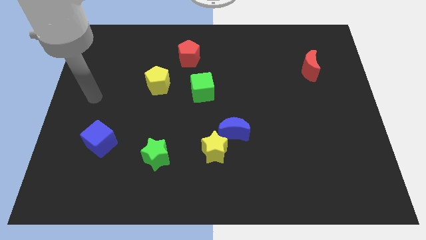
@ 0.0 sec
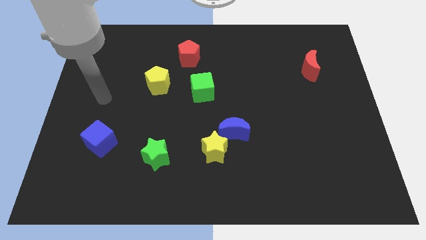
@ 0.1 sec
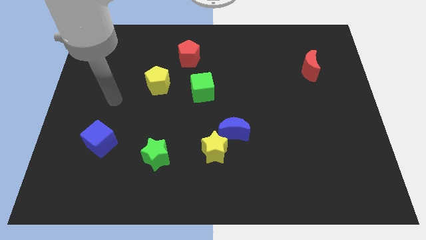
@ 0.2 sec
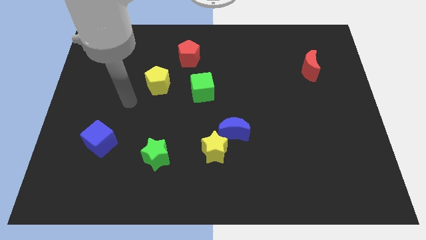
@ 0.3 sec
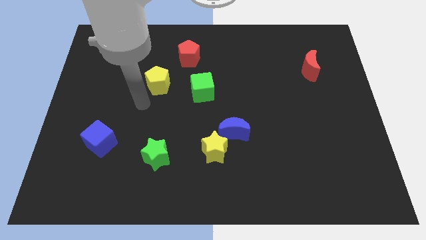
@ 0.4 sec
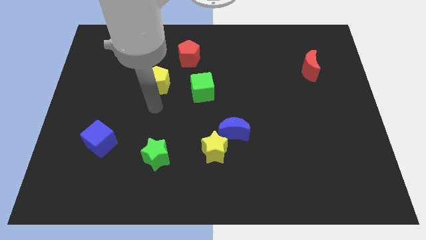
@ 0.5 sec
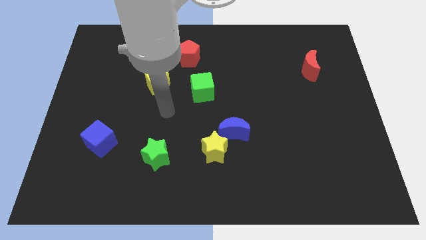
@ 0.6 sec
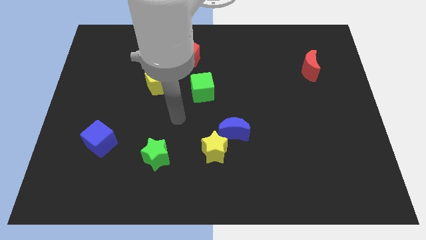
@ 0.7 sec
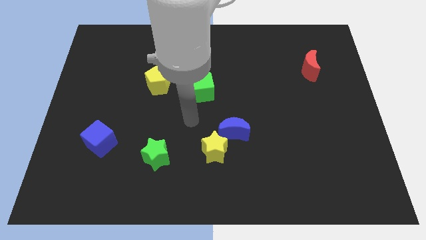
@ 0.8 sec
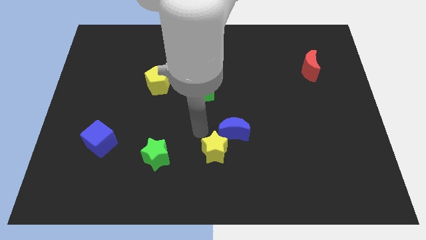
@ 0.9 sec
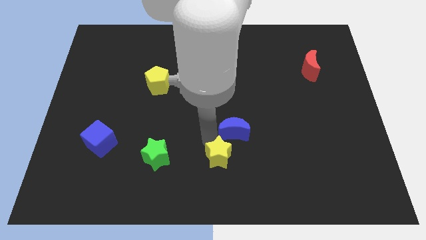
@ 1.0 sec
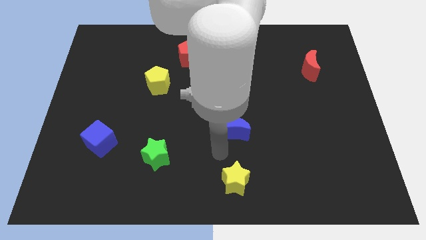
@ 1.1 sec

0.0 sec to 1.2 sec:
pull the blue moon apart from the yellow star

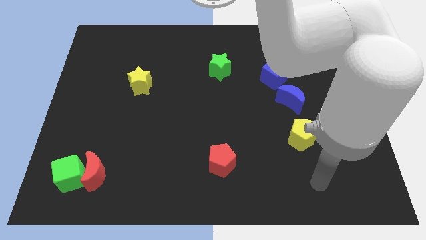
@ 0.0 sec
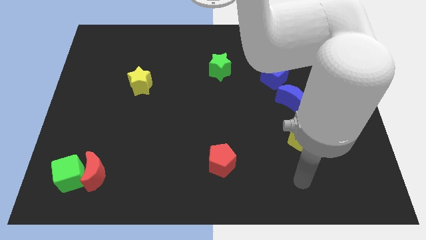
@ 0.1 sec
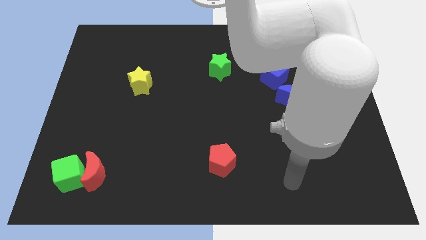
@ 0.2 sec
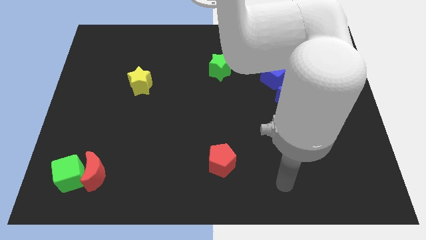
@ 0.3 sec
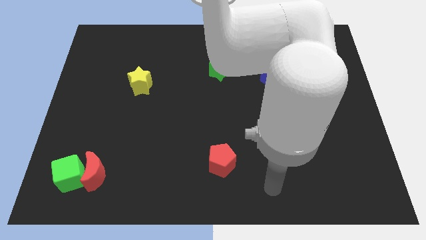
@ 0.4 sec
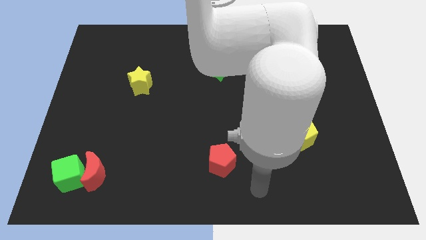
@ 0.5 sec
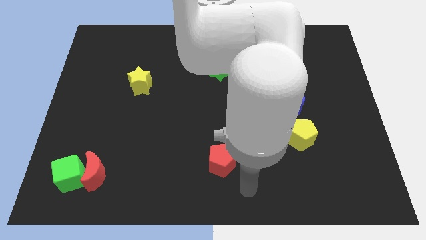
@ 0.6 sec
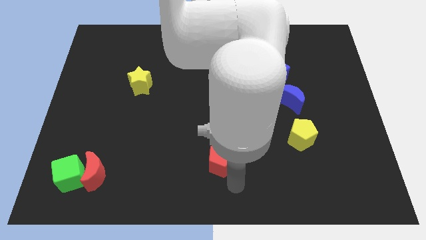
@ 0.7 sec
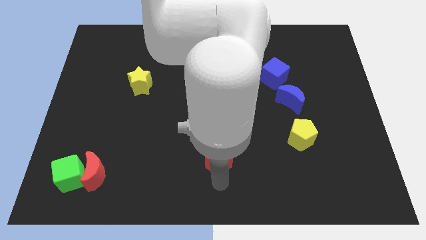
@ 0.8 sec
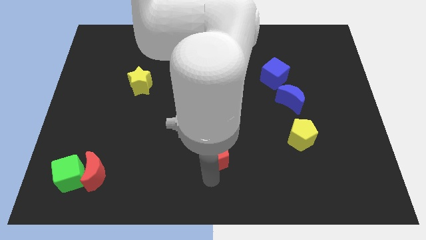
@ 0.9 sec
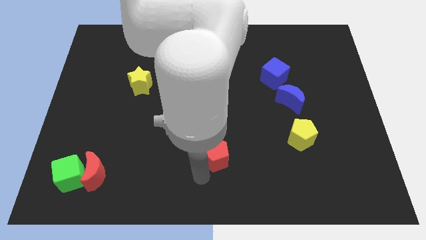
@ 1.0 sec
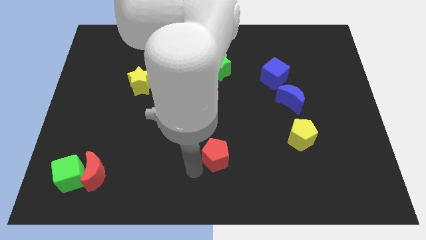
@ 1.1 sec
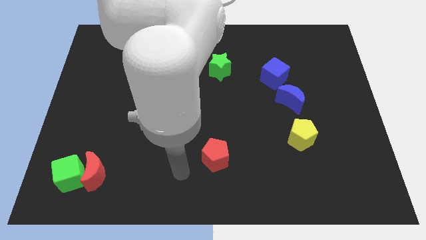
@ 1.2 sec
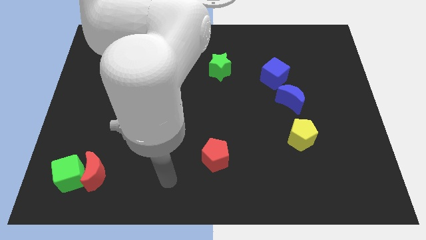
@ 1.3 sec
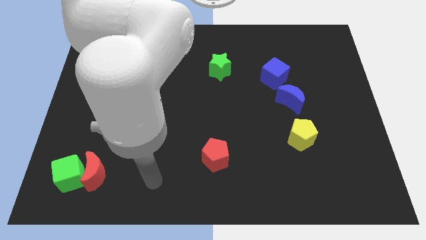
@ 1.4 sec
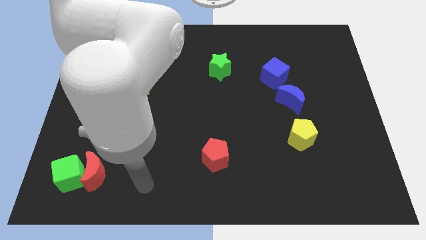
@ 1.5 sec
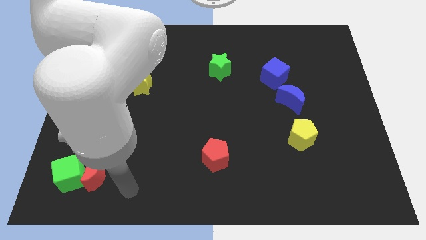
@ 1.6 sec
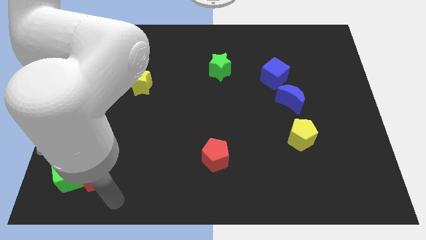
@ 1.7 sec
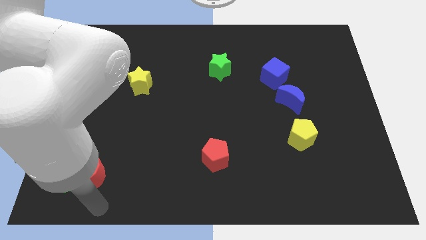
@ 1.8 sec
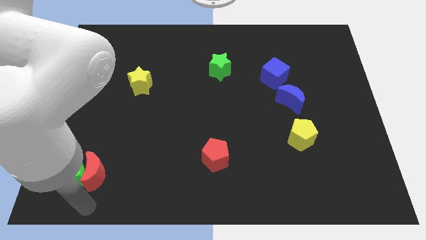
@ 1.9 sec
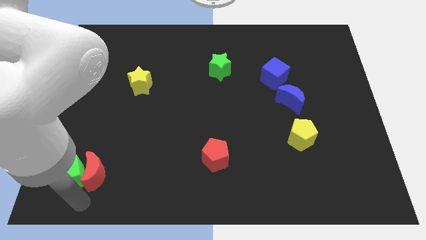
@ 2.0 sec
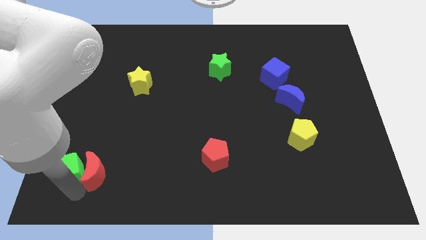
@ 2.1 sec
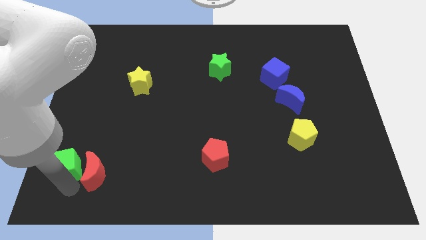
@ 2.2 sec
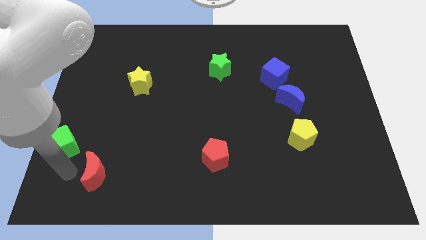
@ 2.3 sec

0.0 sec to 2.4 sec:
move the red moon away from the green cube

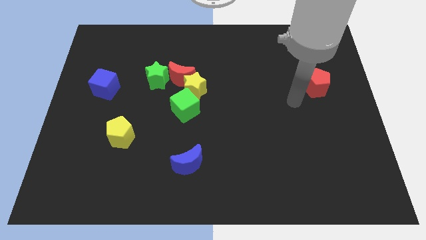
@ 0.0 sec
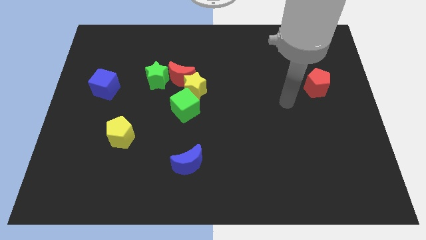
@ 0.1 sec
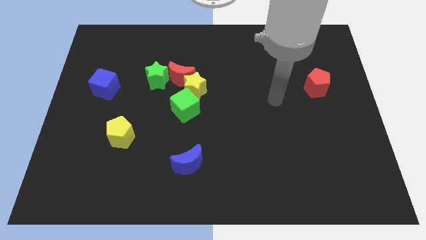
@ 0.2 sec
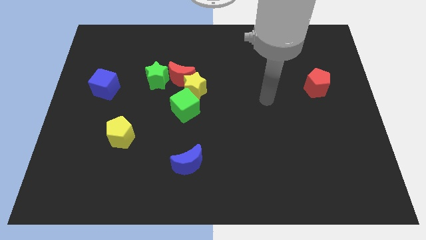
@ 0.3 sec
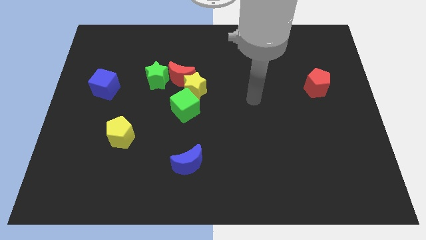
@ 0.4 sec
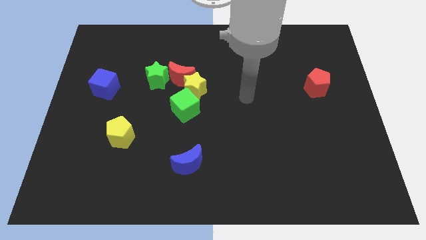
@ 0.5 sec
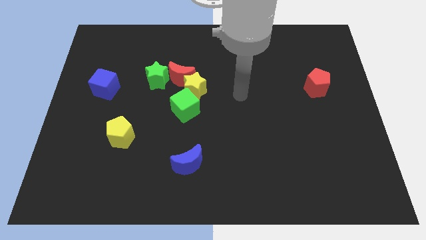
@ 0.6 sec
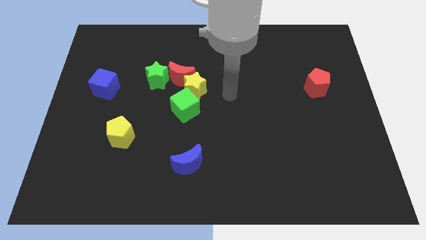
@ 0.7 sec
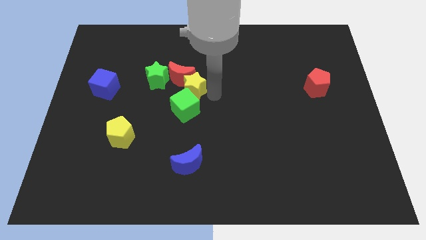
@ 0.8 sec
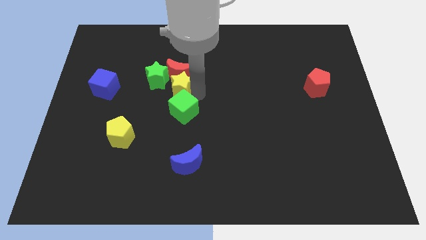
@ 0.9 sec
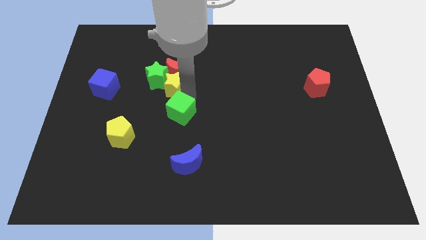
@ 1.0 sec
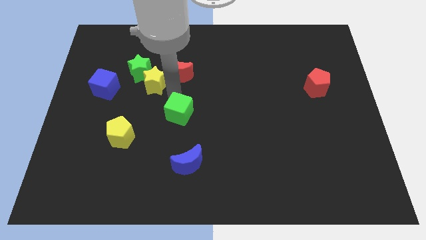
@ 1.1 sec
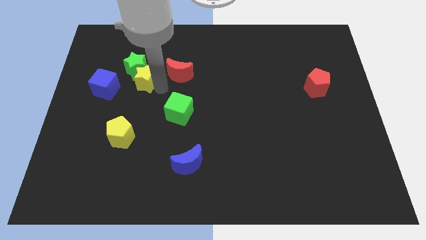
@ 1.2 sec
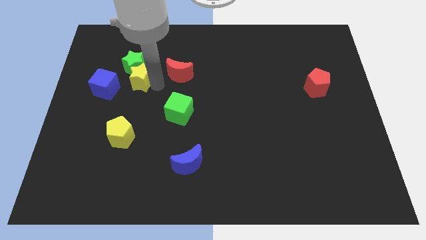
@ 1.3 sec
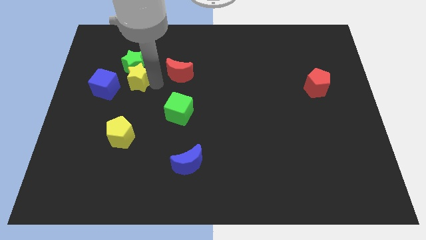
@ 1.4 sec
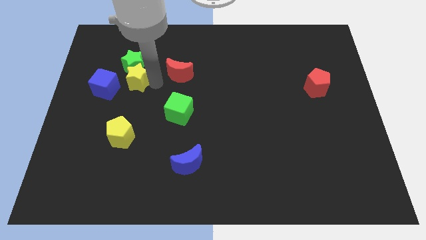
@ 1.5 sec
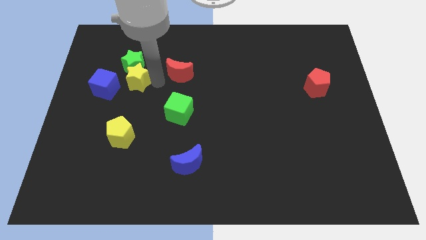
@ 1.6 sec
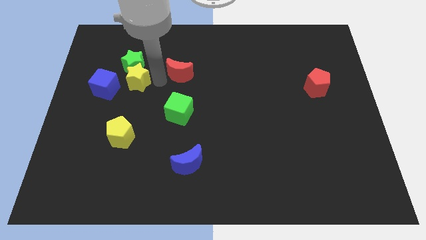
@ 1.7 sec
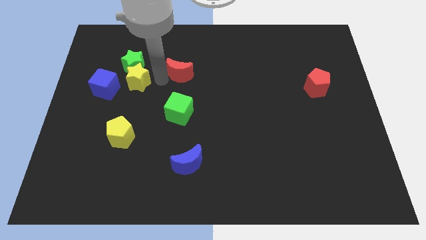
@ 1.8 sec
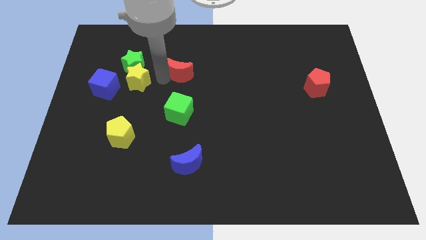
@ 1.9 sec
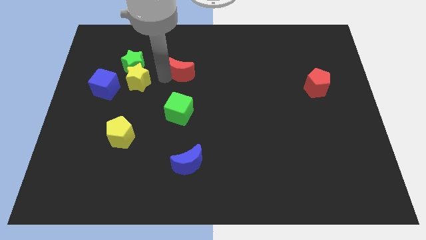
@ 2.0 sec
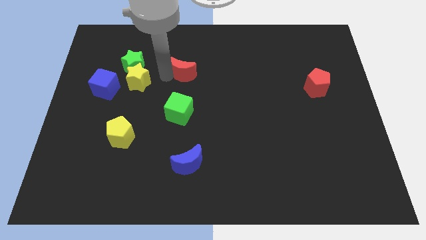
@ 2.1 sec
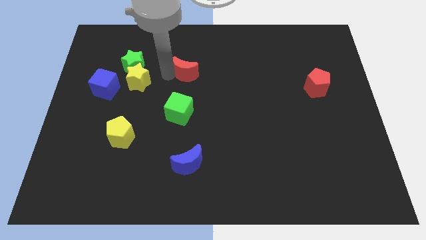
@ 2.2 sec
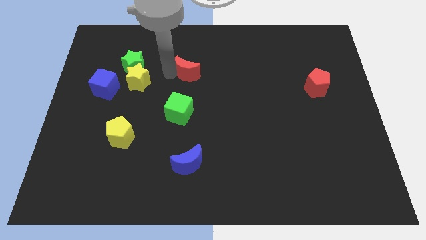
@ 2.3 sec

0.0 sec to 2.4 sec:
move the red moon away from the clump

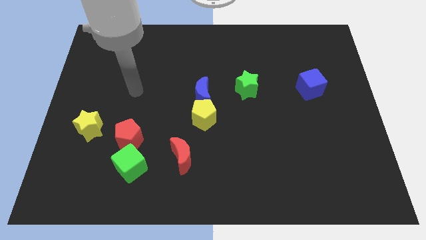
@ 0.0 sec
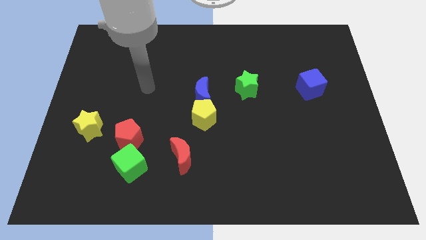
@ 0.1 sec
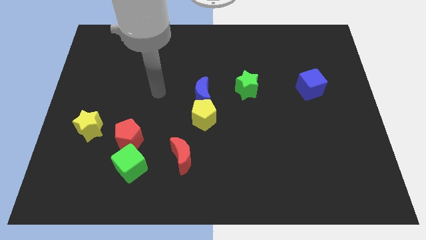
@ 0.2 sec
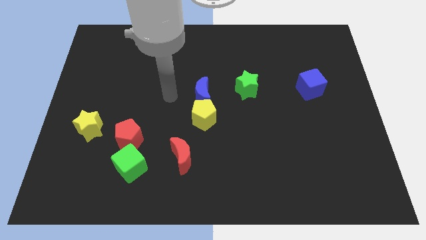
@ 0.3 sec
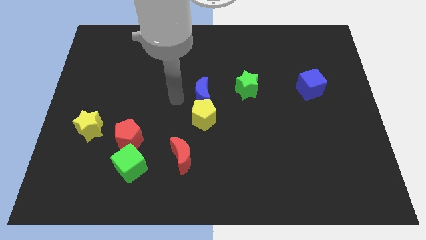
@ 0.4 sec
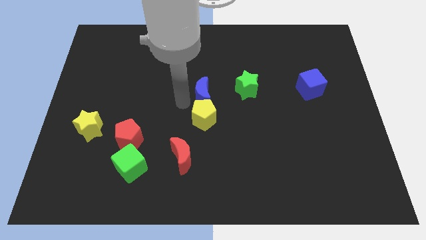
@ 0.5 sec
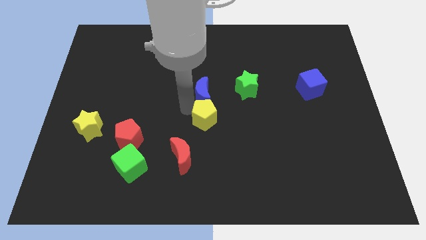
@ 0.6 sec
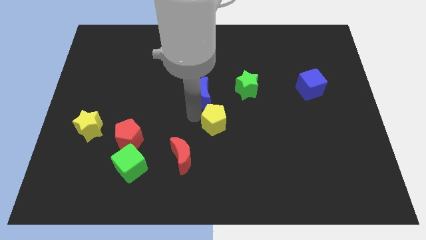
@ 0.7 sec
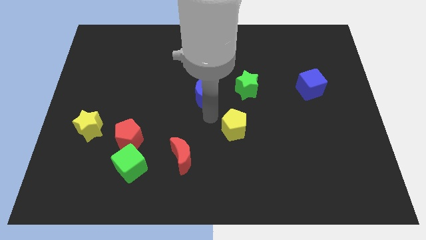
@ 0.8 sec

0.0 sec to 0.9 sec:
pull the blue moon apart from the yellow pentagon

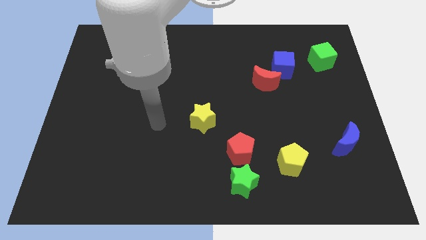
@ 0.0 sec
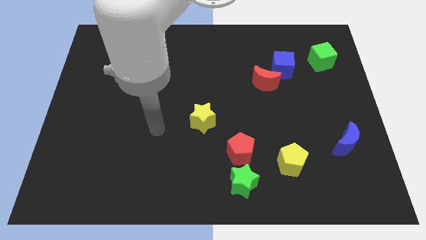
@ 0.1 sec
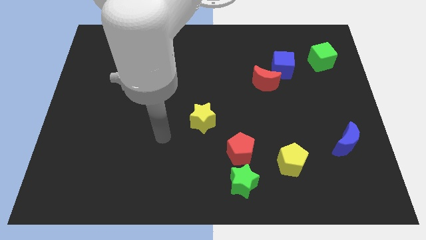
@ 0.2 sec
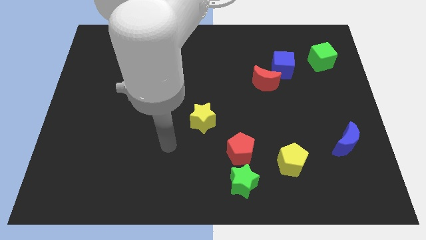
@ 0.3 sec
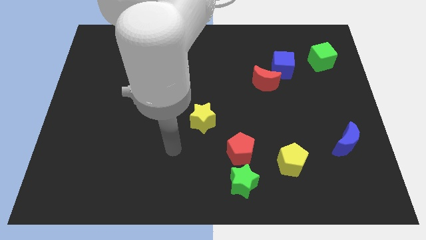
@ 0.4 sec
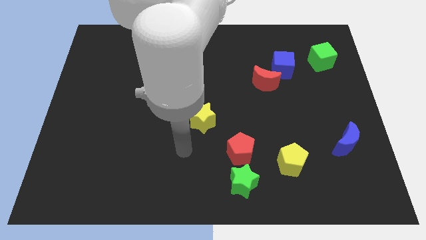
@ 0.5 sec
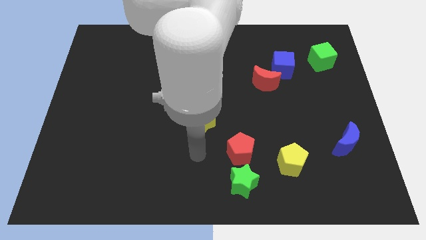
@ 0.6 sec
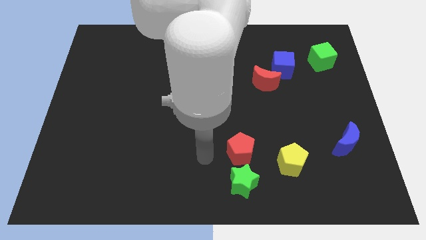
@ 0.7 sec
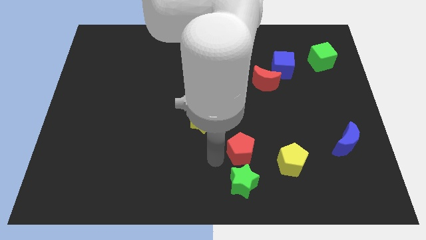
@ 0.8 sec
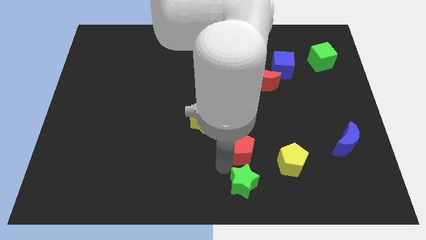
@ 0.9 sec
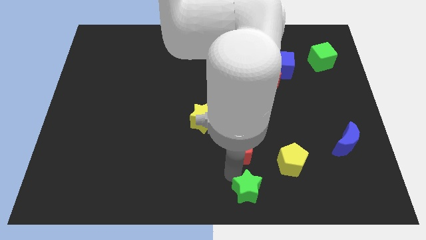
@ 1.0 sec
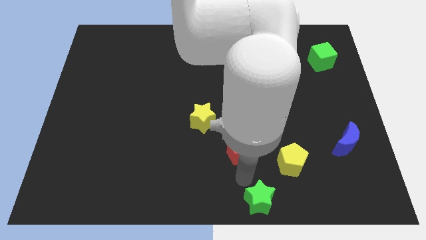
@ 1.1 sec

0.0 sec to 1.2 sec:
move the red pentagon away from the green star

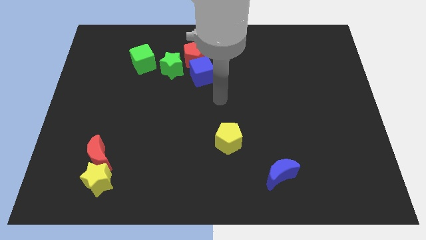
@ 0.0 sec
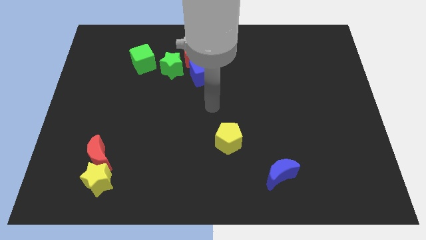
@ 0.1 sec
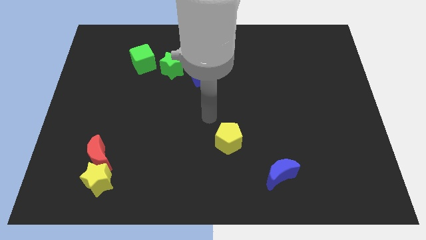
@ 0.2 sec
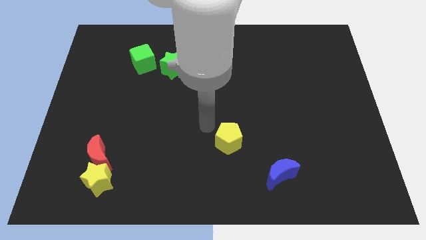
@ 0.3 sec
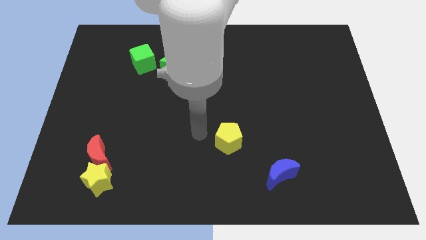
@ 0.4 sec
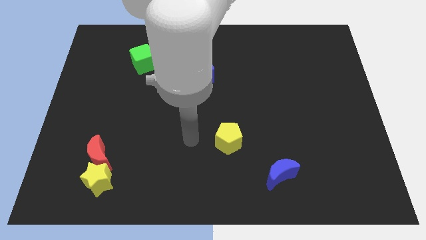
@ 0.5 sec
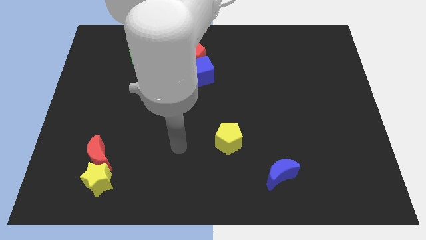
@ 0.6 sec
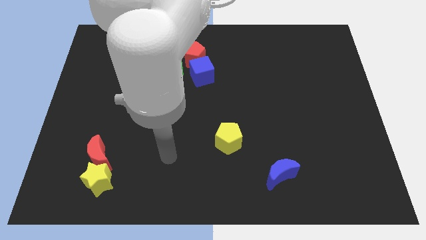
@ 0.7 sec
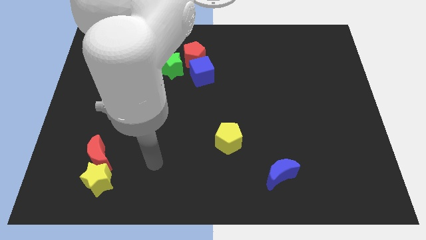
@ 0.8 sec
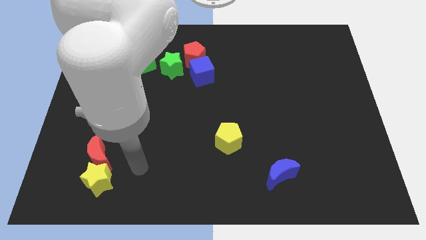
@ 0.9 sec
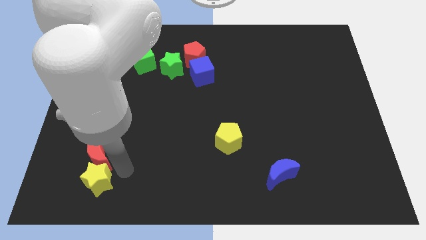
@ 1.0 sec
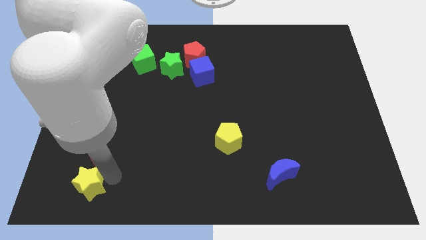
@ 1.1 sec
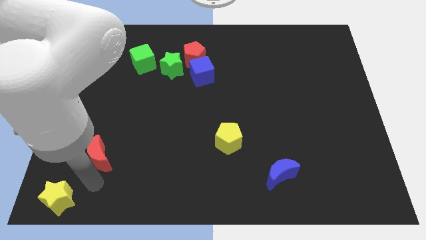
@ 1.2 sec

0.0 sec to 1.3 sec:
pull the red moon apart from the yellow star
